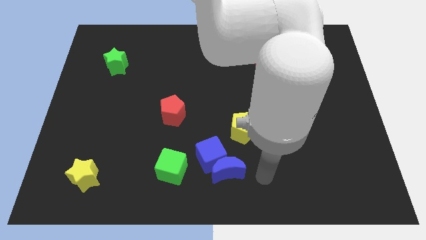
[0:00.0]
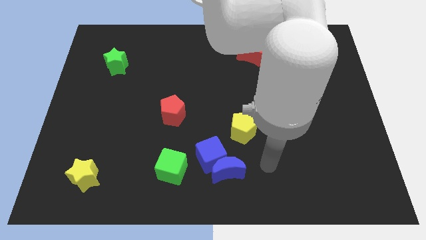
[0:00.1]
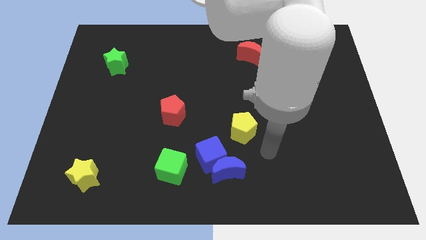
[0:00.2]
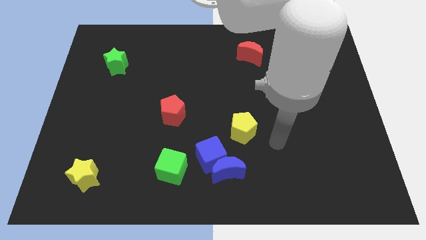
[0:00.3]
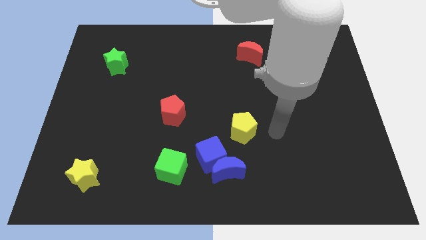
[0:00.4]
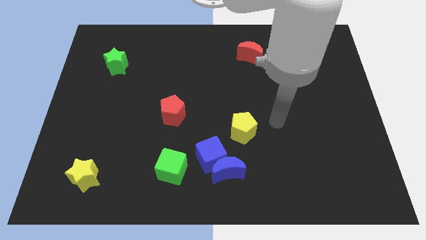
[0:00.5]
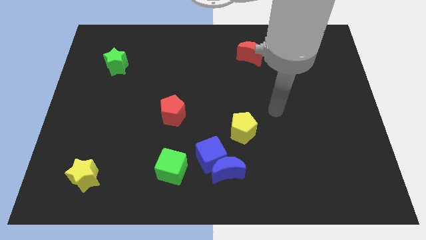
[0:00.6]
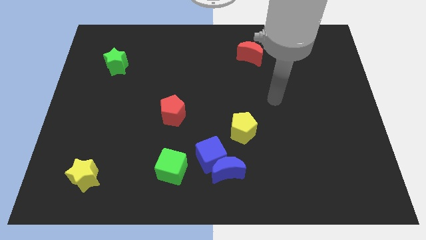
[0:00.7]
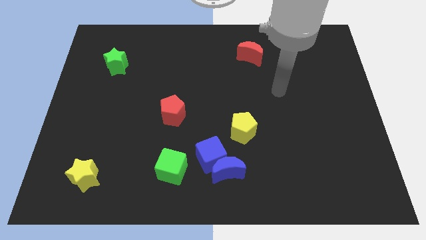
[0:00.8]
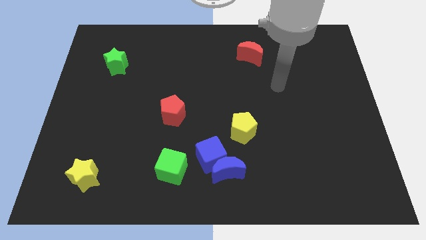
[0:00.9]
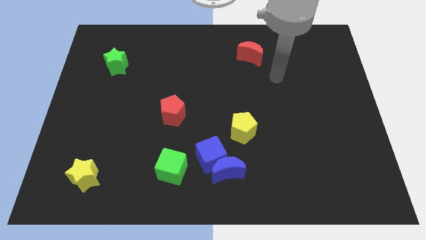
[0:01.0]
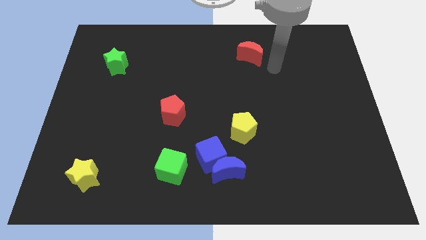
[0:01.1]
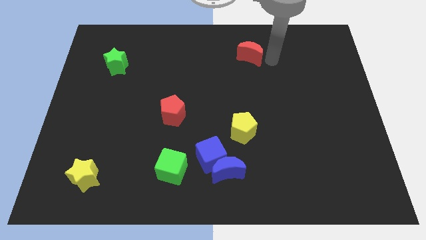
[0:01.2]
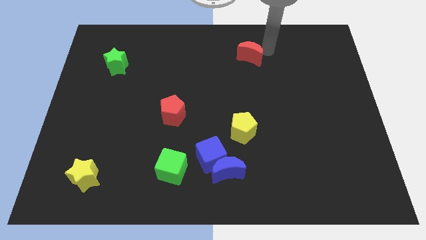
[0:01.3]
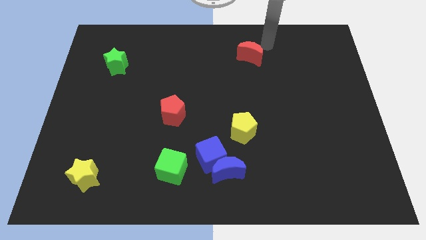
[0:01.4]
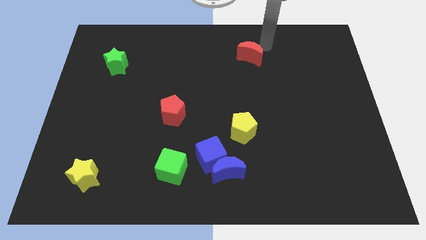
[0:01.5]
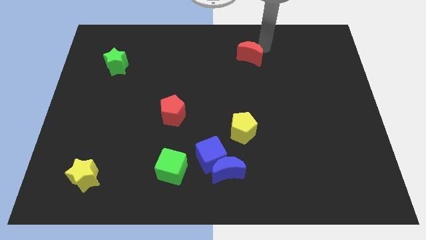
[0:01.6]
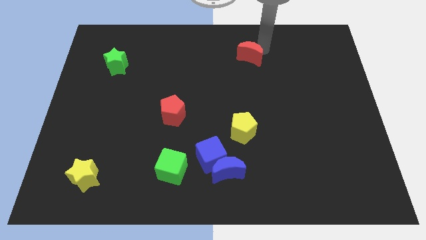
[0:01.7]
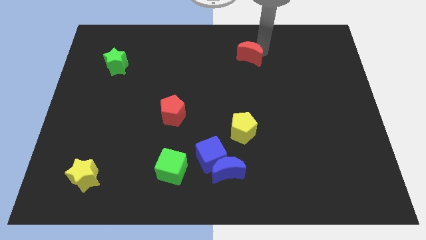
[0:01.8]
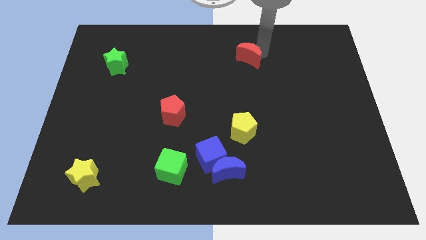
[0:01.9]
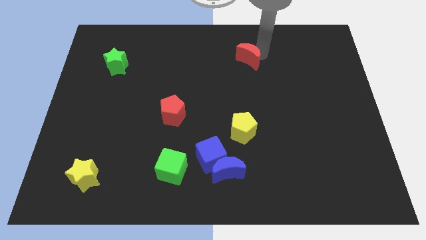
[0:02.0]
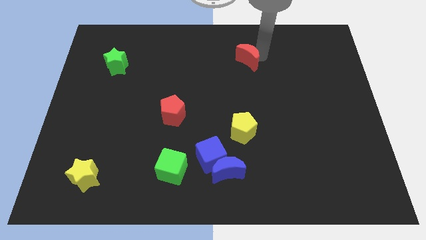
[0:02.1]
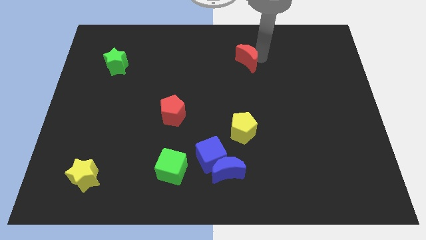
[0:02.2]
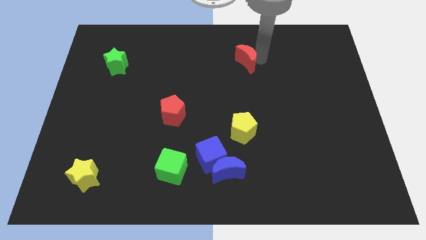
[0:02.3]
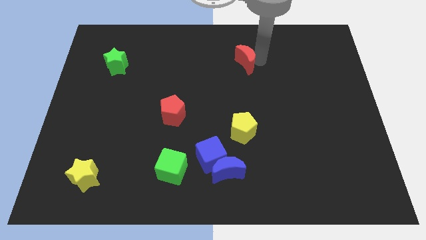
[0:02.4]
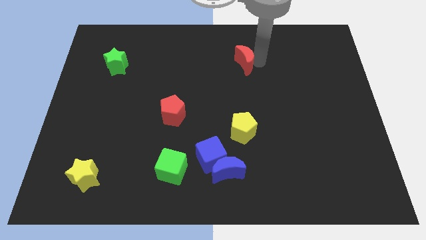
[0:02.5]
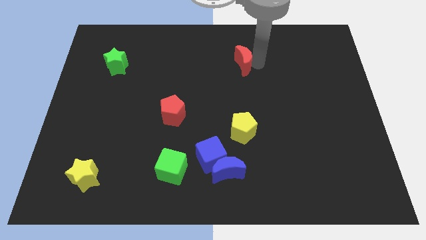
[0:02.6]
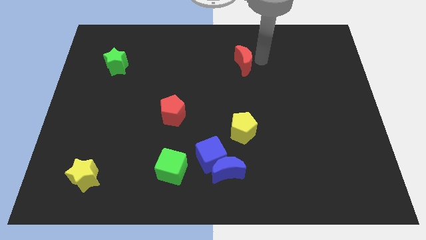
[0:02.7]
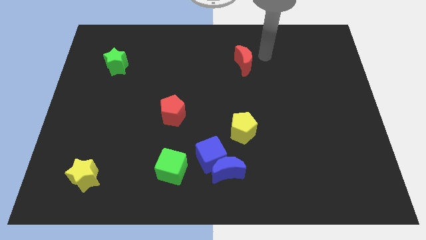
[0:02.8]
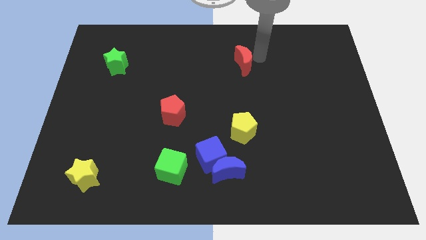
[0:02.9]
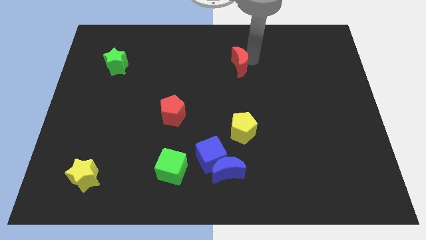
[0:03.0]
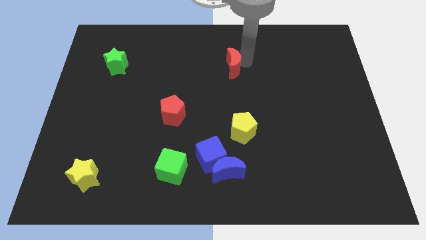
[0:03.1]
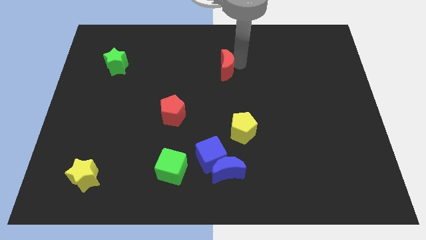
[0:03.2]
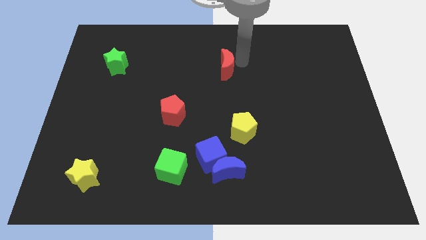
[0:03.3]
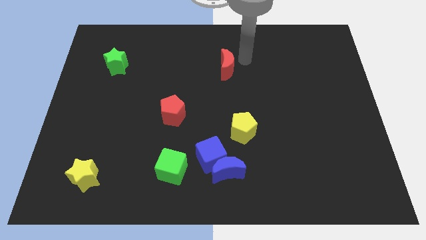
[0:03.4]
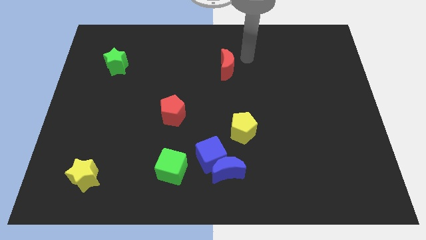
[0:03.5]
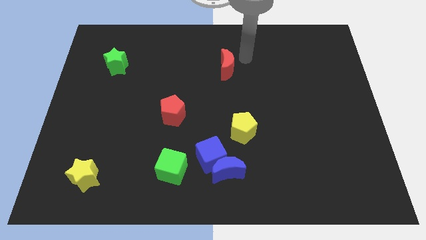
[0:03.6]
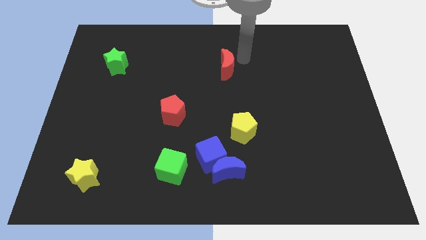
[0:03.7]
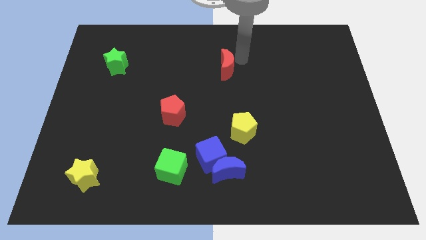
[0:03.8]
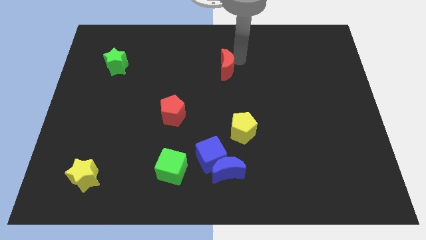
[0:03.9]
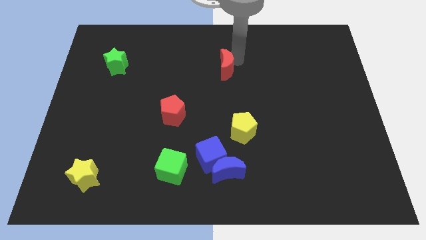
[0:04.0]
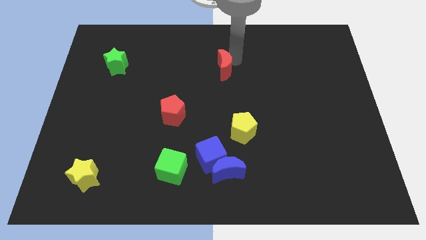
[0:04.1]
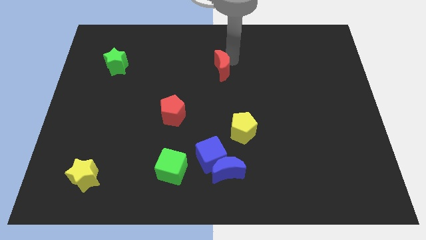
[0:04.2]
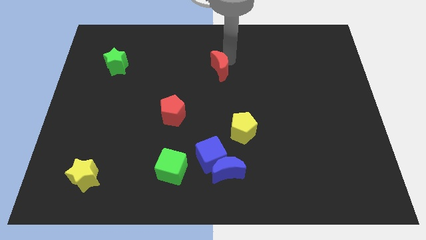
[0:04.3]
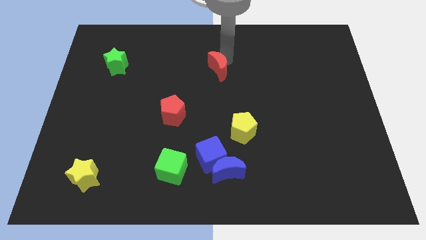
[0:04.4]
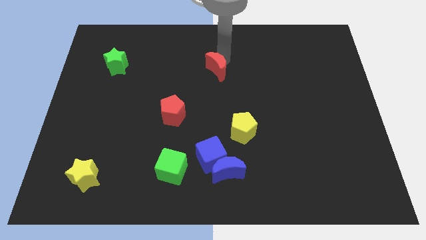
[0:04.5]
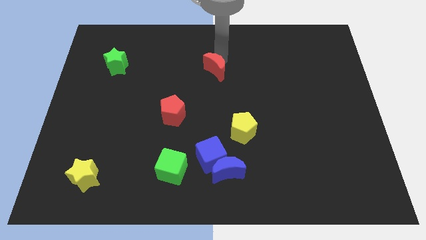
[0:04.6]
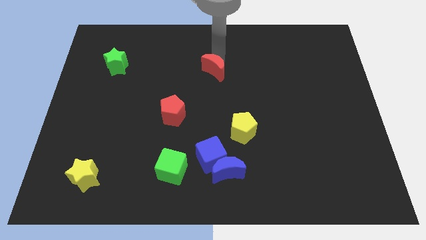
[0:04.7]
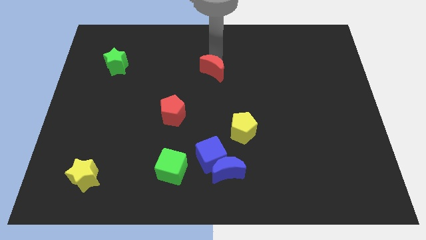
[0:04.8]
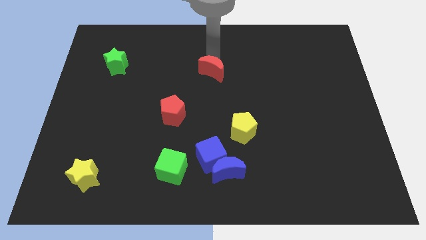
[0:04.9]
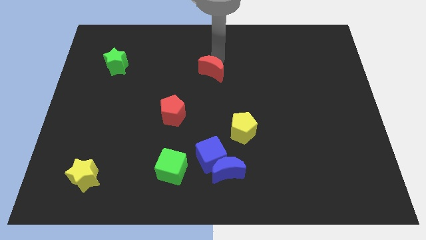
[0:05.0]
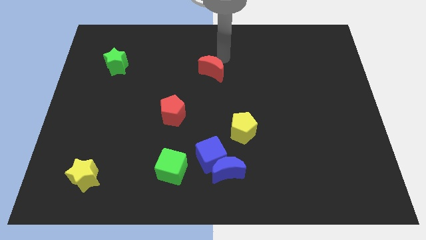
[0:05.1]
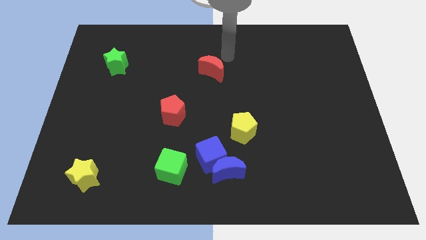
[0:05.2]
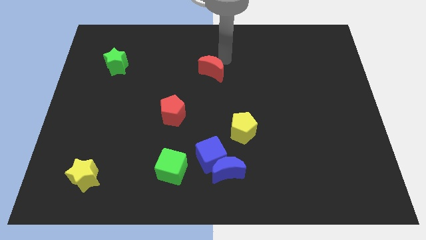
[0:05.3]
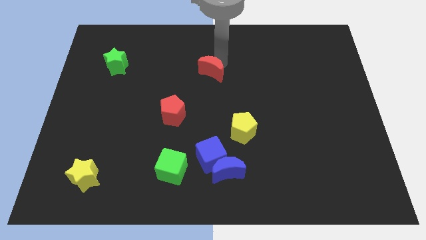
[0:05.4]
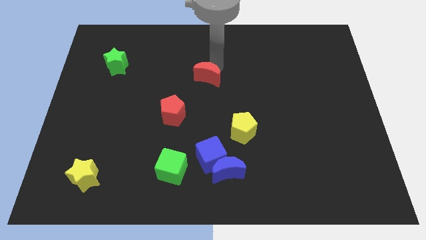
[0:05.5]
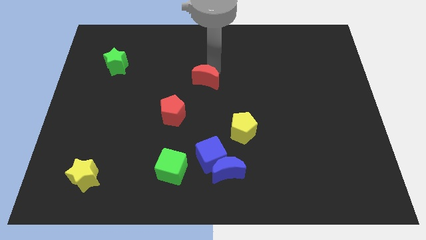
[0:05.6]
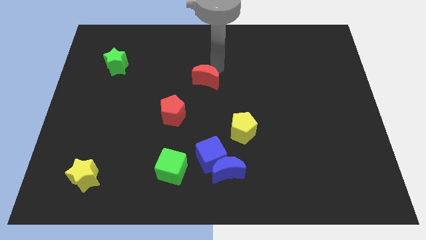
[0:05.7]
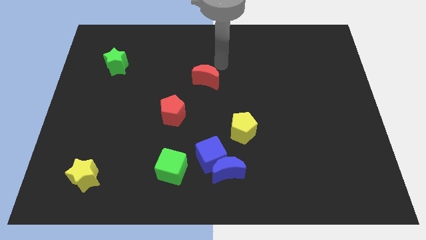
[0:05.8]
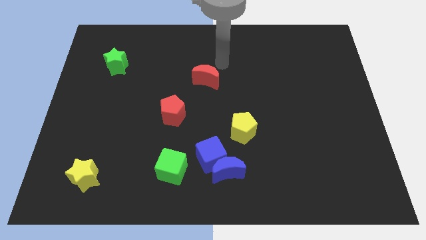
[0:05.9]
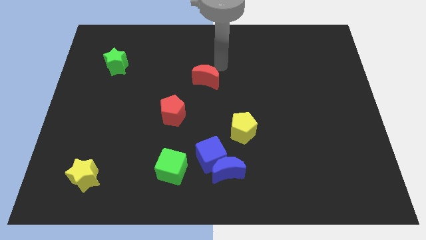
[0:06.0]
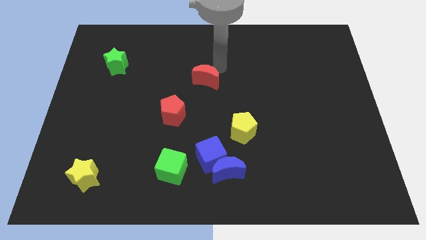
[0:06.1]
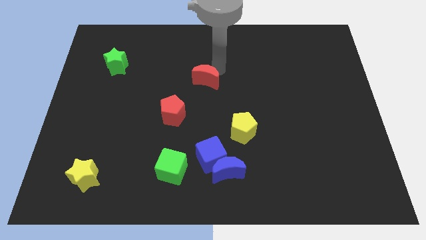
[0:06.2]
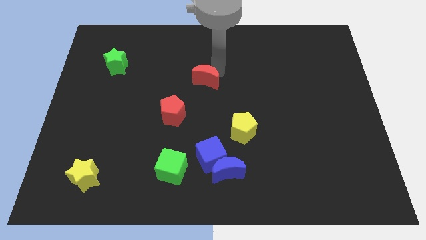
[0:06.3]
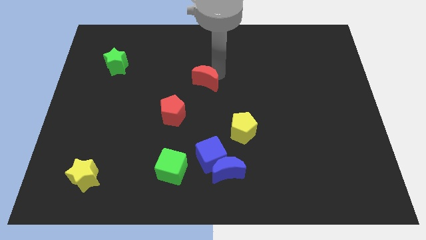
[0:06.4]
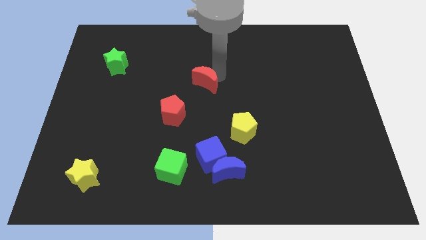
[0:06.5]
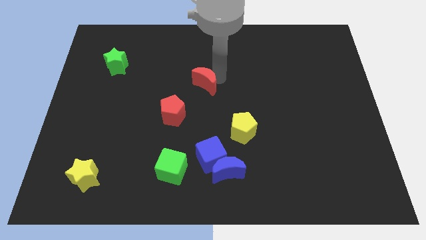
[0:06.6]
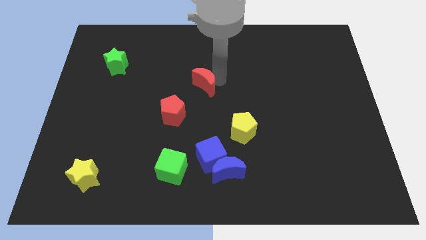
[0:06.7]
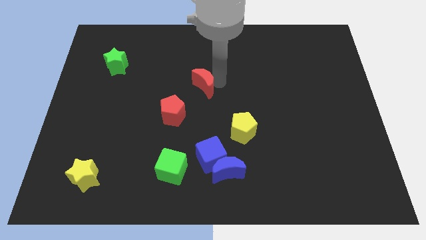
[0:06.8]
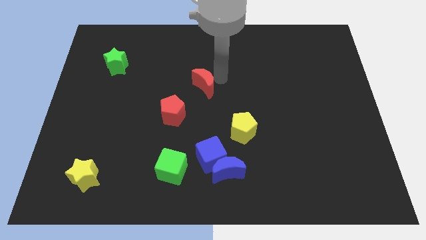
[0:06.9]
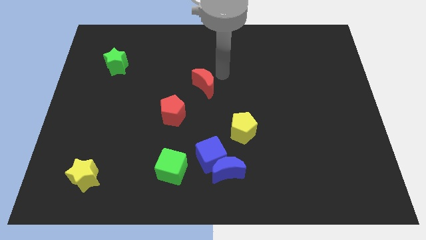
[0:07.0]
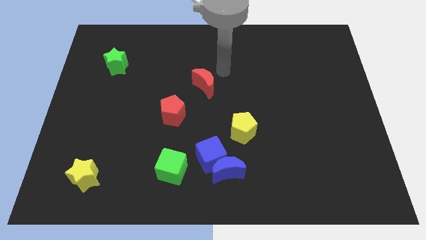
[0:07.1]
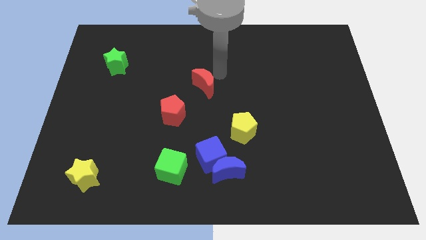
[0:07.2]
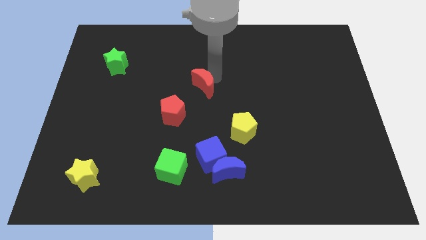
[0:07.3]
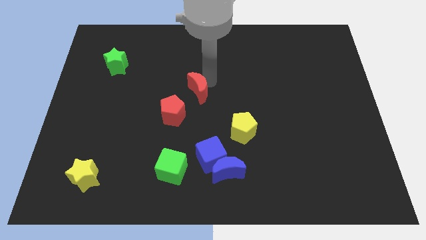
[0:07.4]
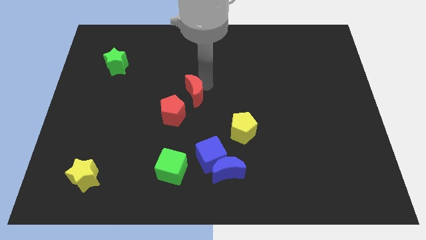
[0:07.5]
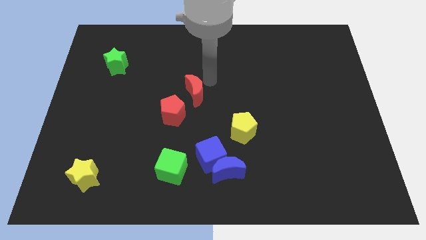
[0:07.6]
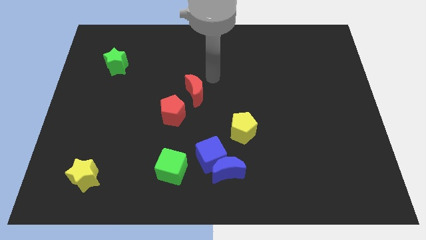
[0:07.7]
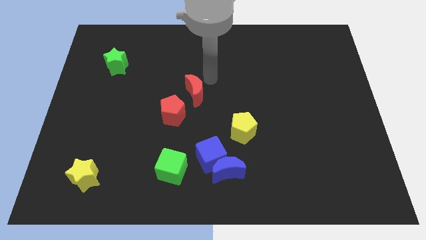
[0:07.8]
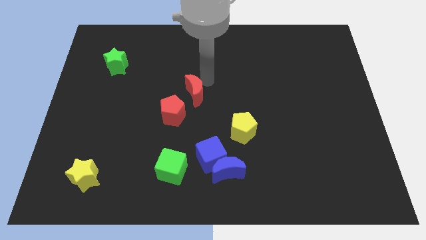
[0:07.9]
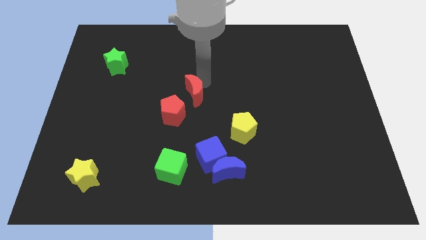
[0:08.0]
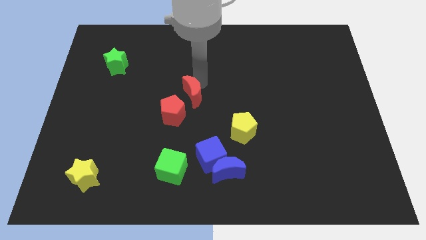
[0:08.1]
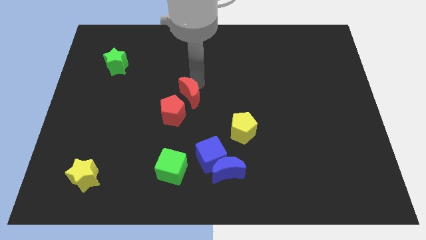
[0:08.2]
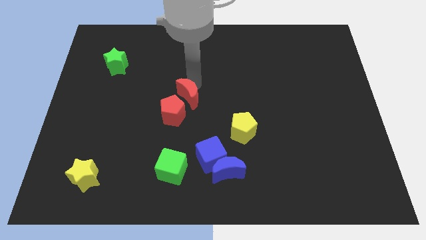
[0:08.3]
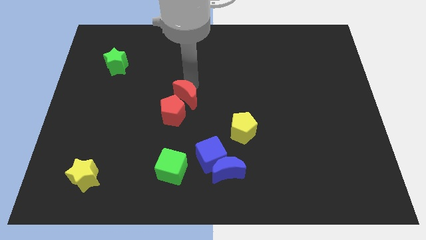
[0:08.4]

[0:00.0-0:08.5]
put the red moon next to the red pentagon

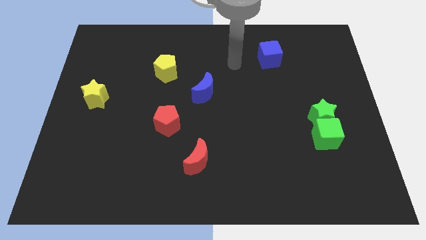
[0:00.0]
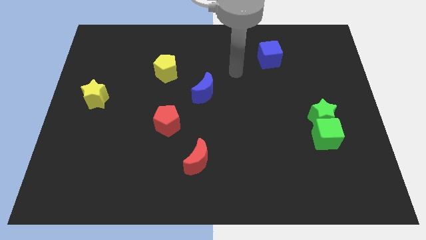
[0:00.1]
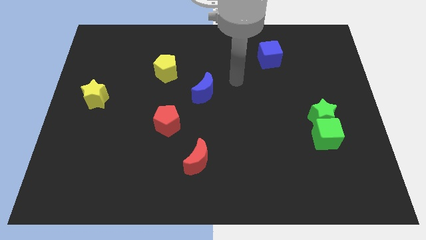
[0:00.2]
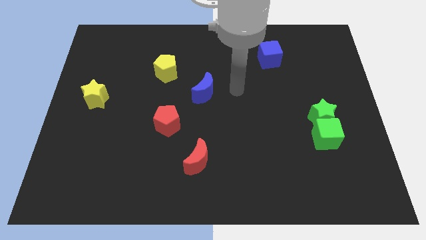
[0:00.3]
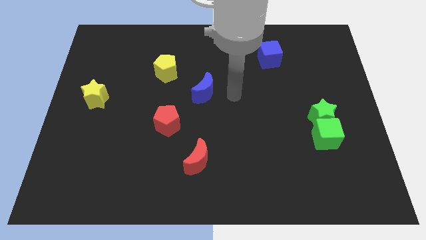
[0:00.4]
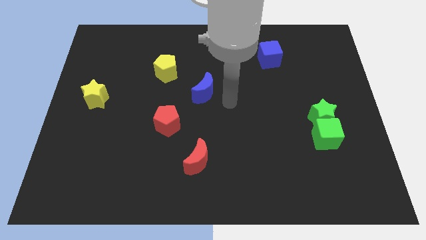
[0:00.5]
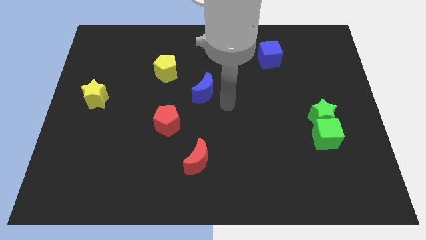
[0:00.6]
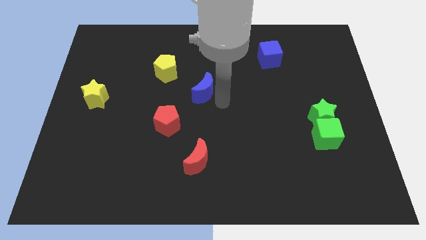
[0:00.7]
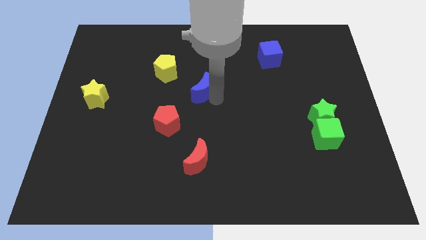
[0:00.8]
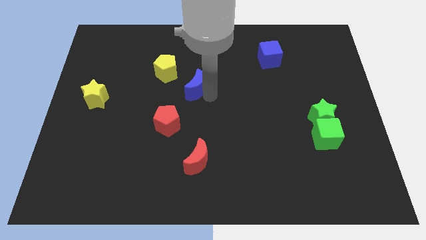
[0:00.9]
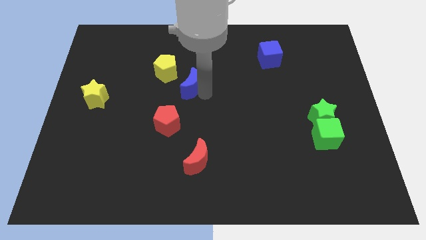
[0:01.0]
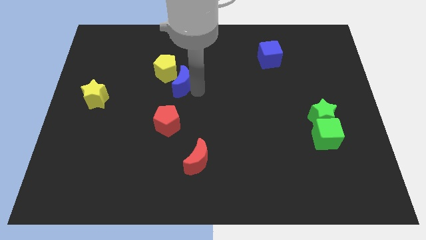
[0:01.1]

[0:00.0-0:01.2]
put the blue moon to the yellow pentagon
